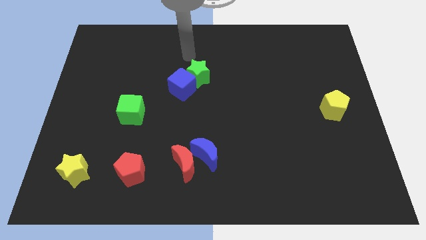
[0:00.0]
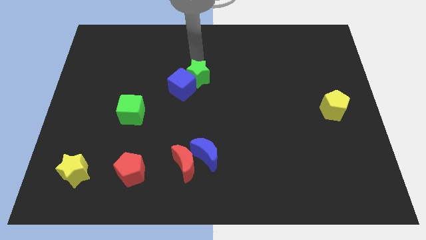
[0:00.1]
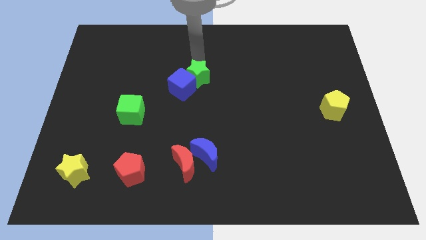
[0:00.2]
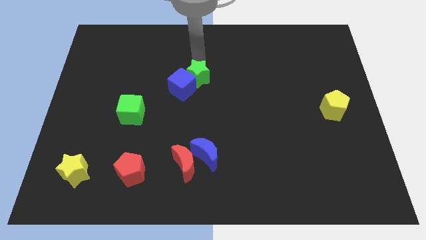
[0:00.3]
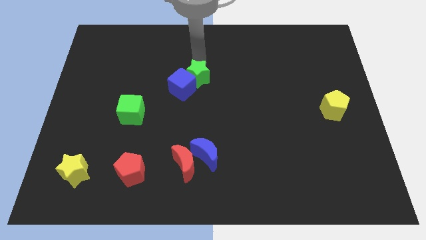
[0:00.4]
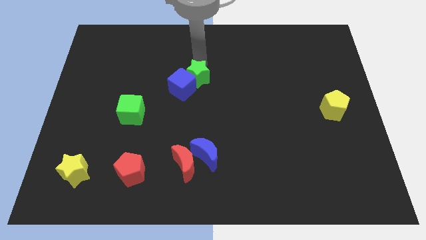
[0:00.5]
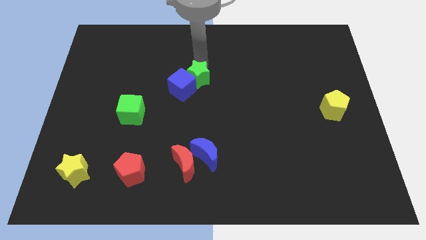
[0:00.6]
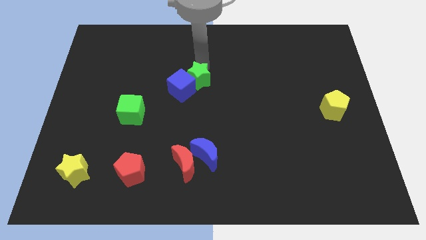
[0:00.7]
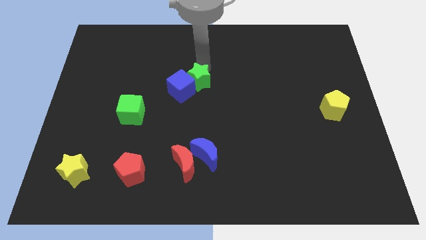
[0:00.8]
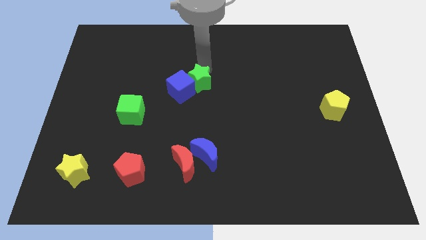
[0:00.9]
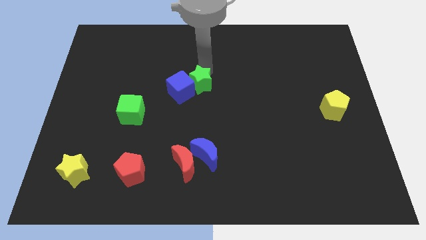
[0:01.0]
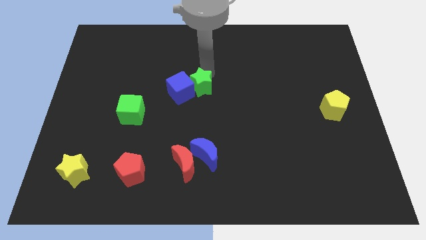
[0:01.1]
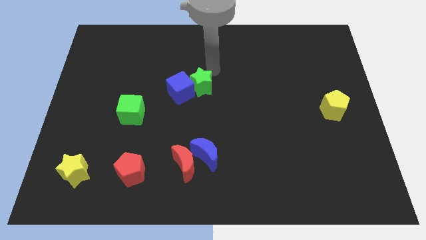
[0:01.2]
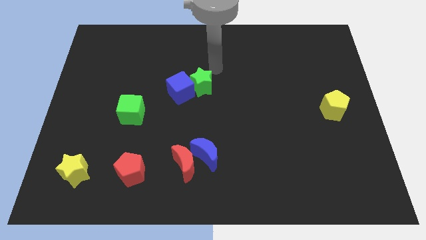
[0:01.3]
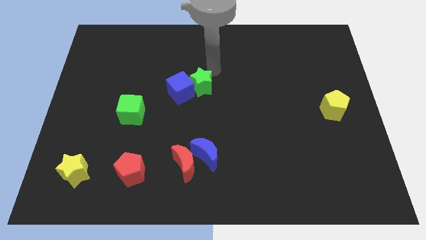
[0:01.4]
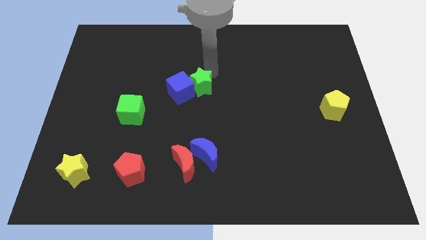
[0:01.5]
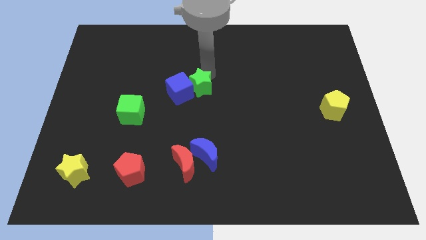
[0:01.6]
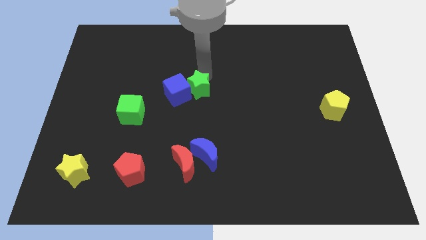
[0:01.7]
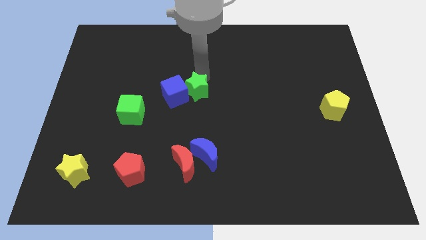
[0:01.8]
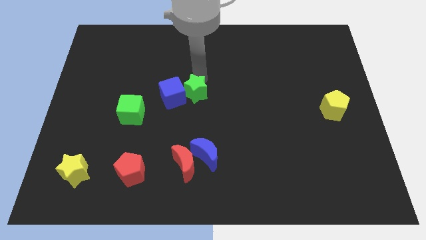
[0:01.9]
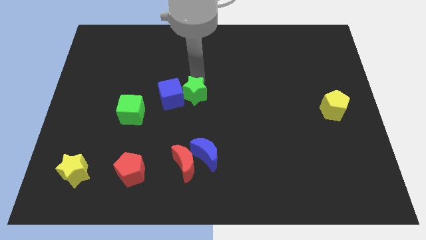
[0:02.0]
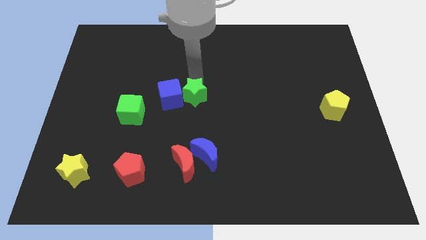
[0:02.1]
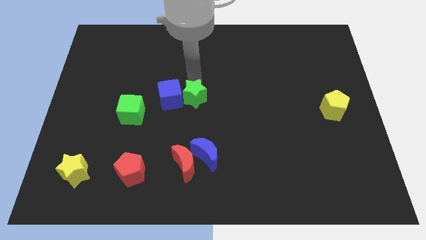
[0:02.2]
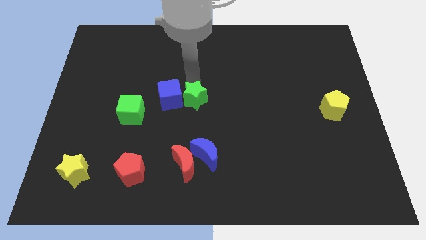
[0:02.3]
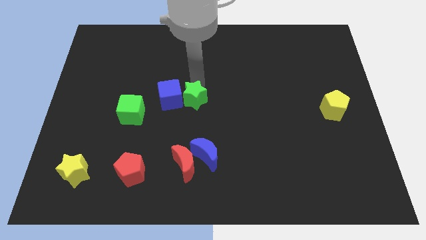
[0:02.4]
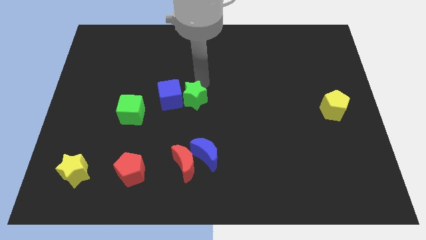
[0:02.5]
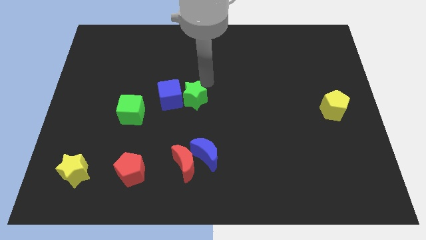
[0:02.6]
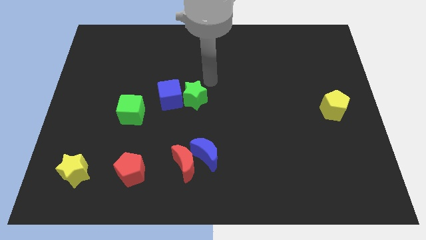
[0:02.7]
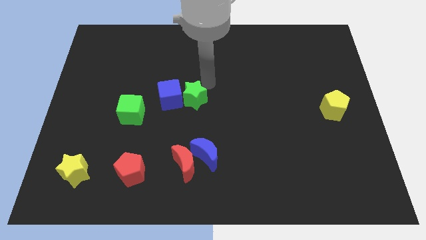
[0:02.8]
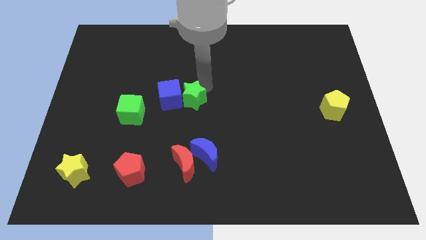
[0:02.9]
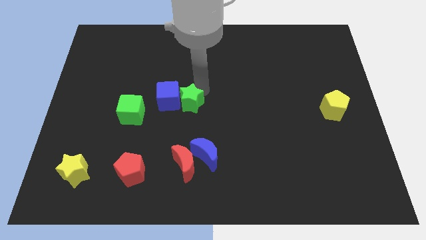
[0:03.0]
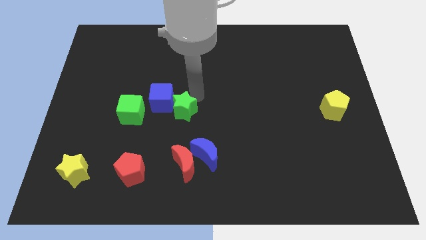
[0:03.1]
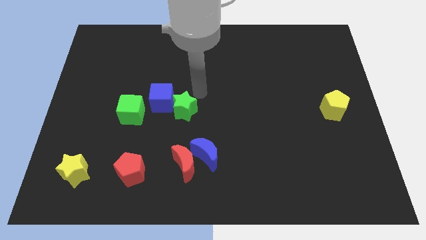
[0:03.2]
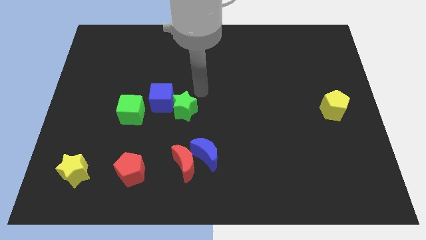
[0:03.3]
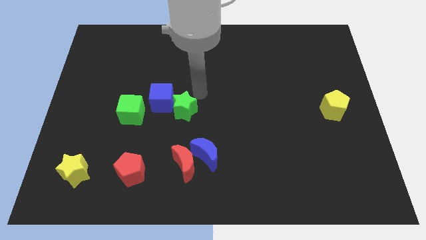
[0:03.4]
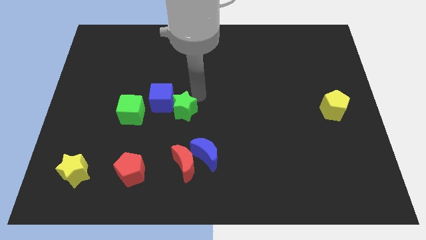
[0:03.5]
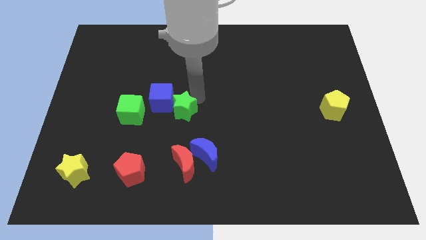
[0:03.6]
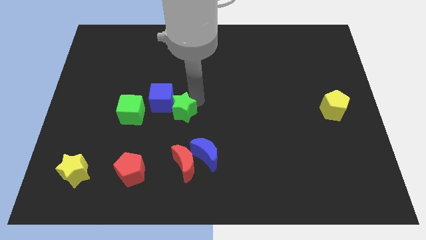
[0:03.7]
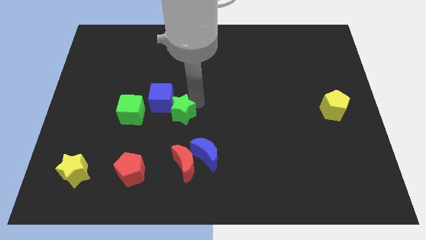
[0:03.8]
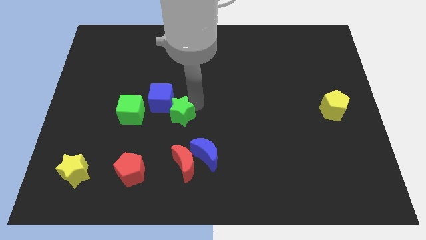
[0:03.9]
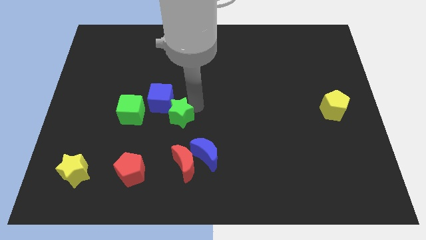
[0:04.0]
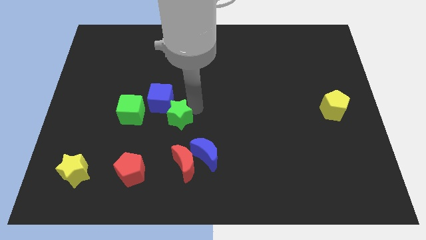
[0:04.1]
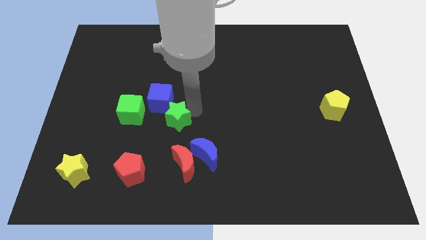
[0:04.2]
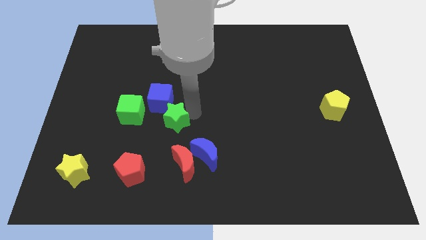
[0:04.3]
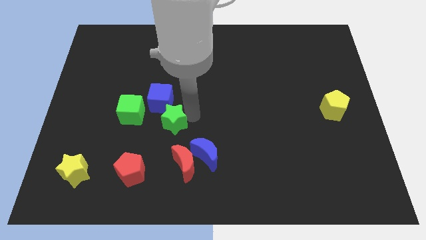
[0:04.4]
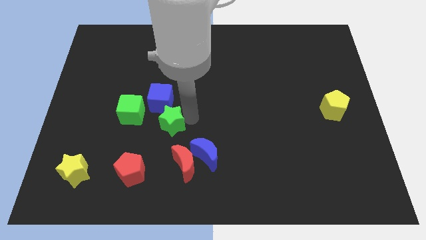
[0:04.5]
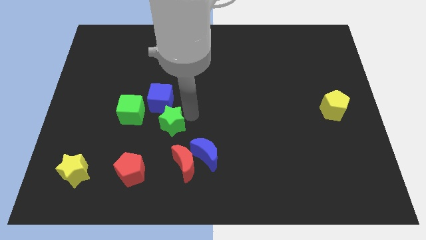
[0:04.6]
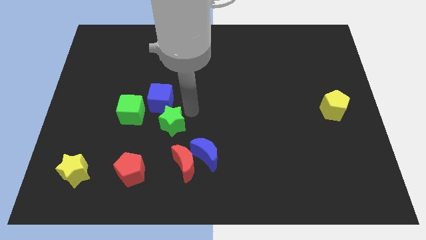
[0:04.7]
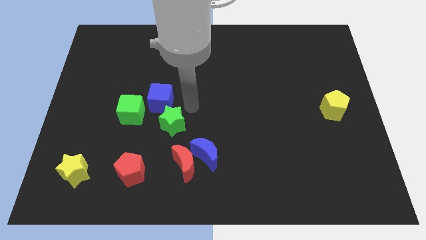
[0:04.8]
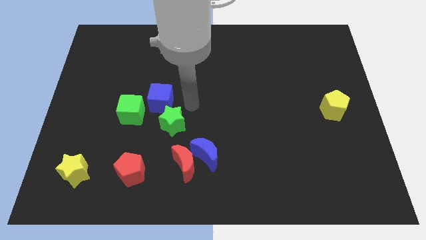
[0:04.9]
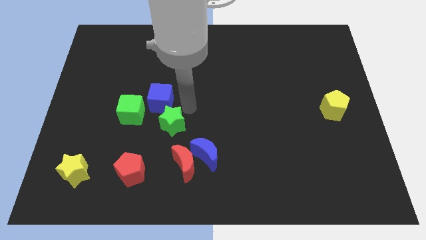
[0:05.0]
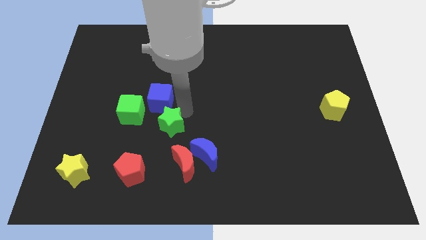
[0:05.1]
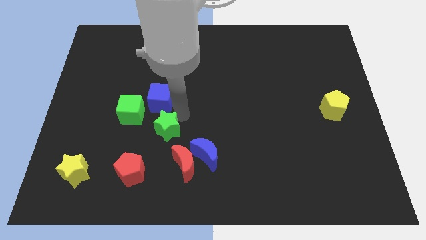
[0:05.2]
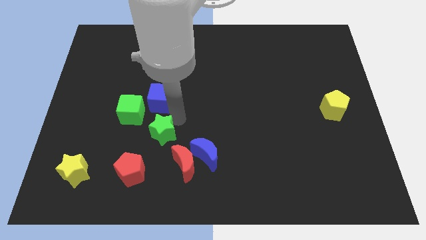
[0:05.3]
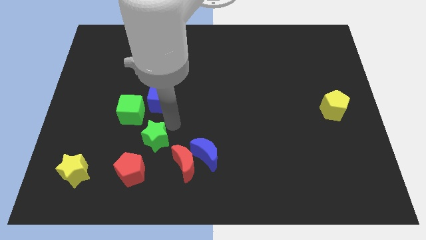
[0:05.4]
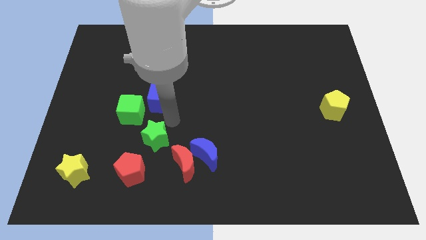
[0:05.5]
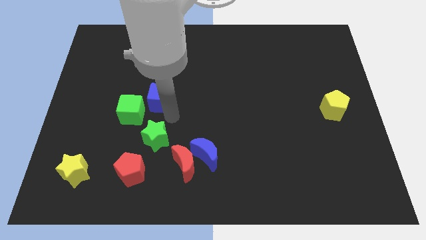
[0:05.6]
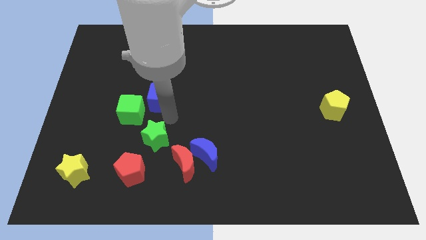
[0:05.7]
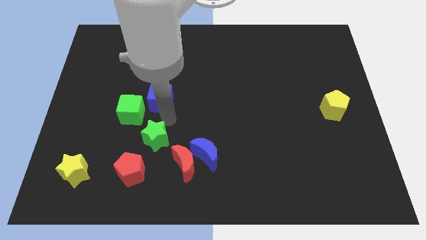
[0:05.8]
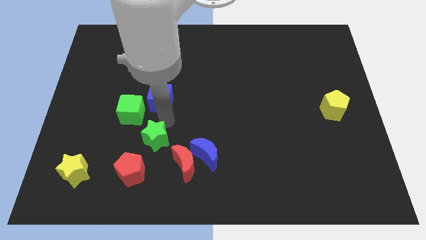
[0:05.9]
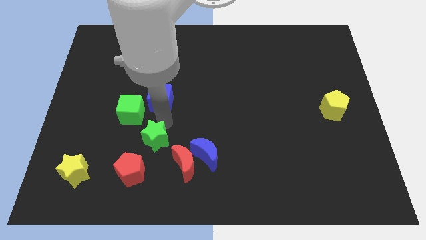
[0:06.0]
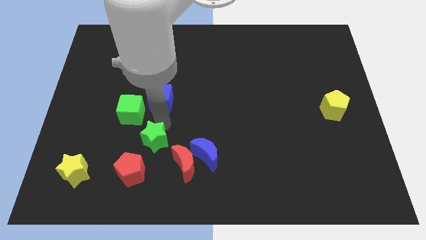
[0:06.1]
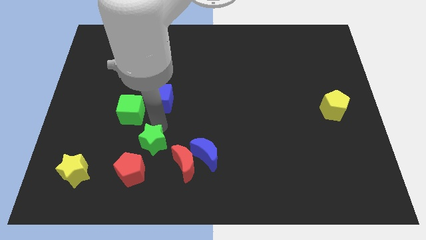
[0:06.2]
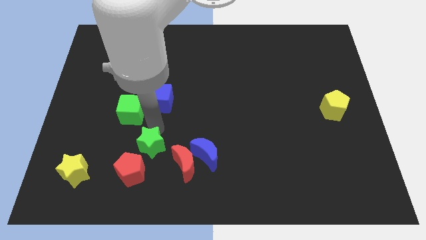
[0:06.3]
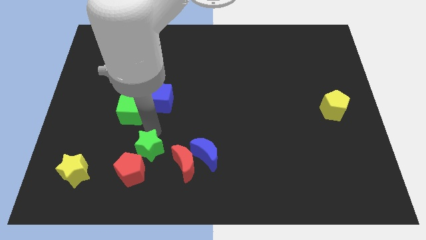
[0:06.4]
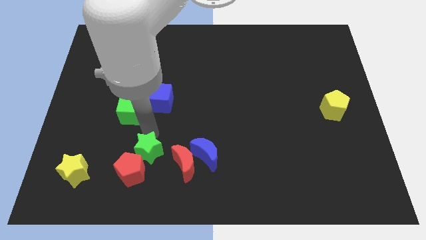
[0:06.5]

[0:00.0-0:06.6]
push the green star next to the red pentagon

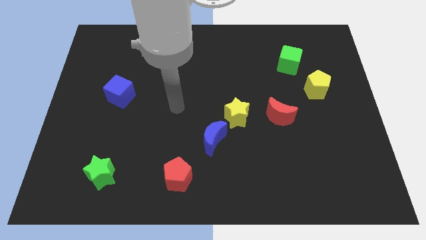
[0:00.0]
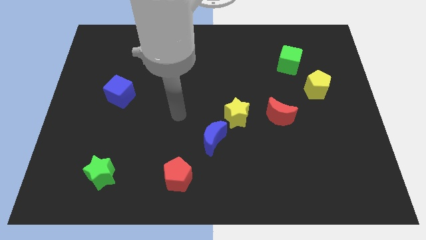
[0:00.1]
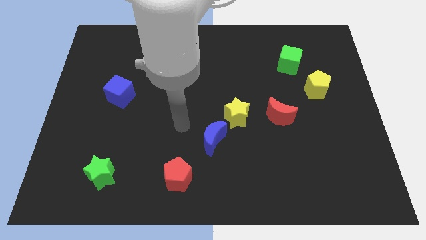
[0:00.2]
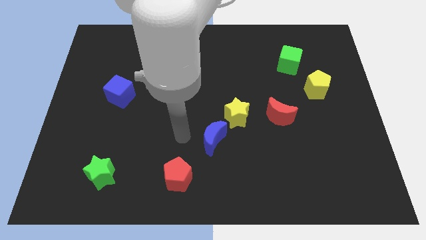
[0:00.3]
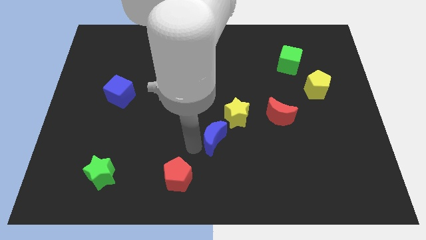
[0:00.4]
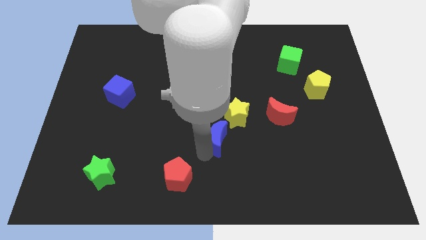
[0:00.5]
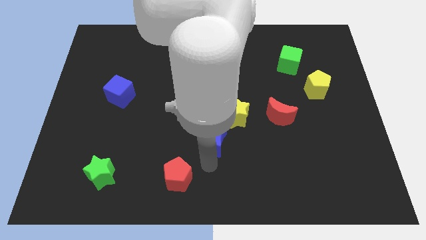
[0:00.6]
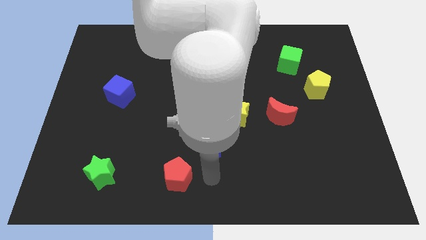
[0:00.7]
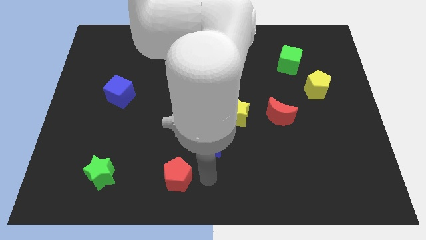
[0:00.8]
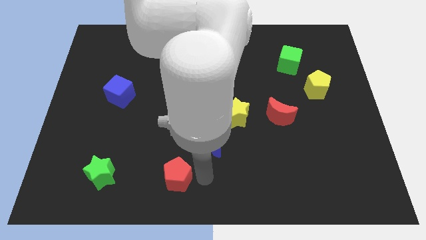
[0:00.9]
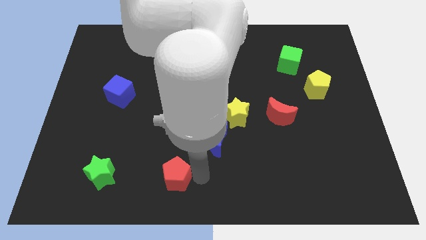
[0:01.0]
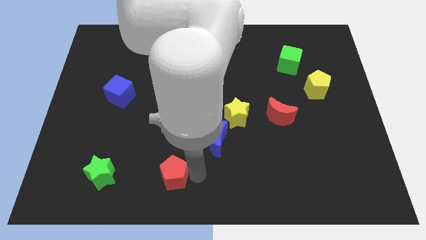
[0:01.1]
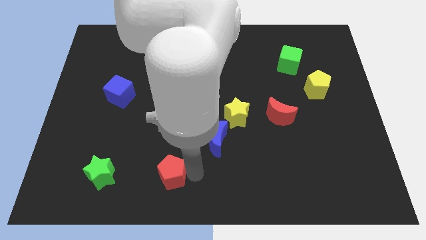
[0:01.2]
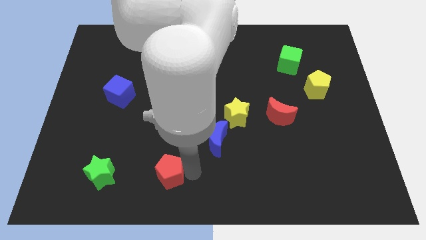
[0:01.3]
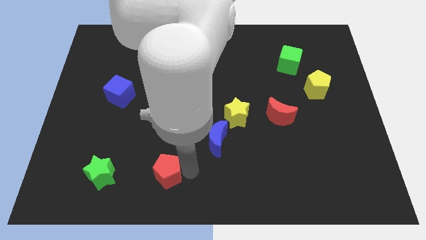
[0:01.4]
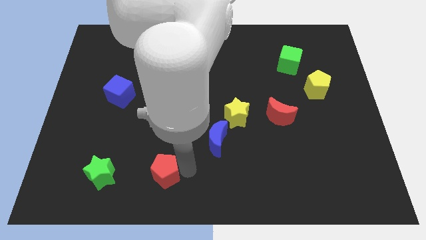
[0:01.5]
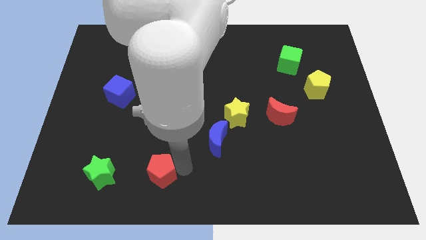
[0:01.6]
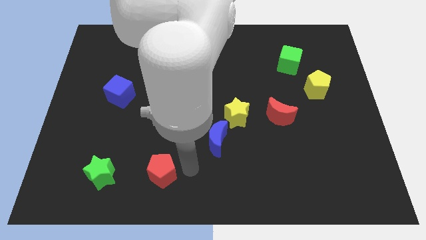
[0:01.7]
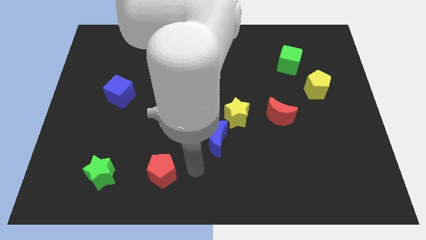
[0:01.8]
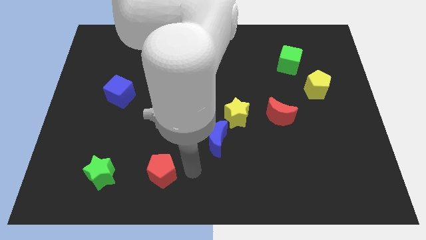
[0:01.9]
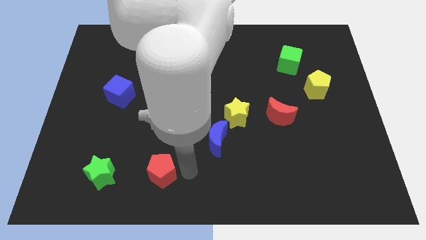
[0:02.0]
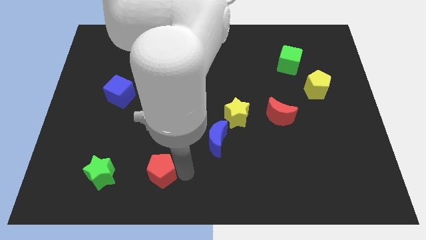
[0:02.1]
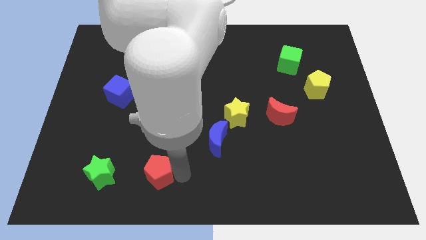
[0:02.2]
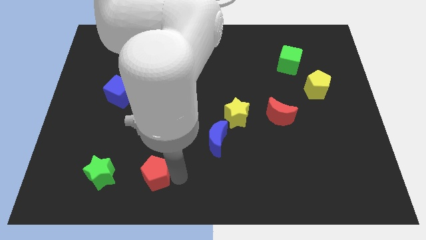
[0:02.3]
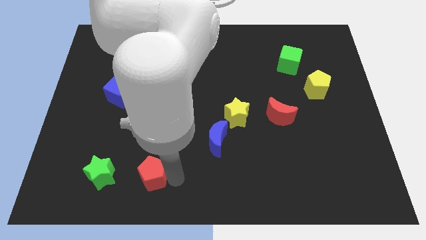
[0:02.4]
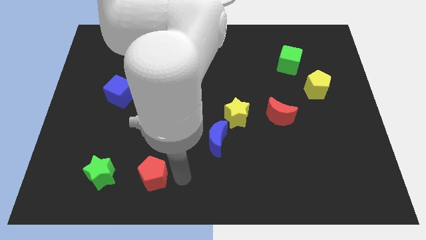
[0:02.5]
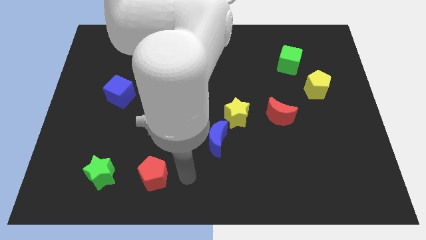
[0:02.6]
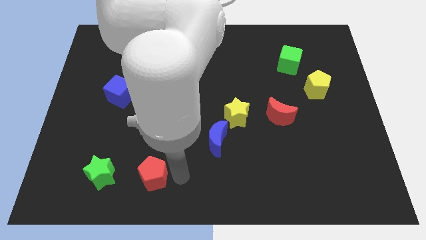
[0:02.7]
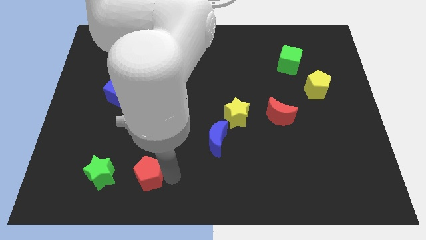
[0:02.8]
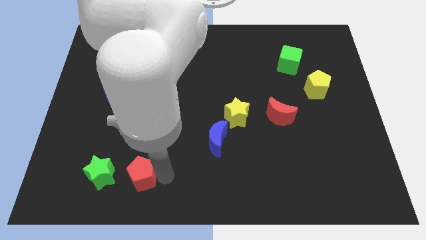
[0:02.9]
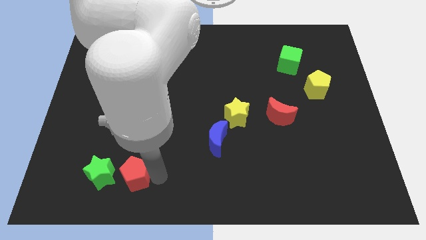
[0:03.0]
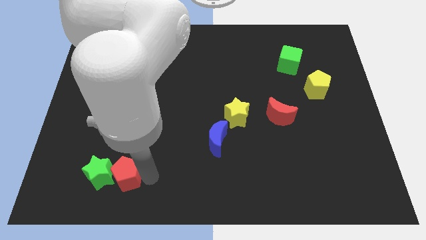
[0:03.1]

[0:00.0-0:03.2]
push the red pentagon towards the green star
